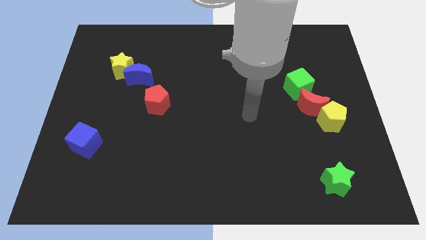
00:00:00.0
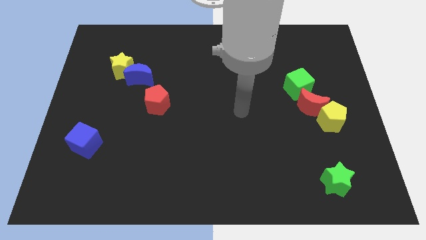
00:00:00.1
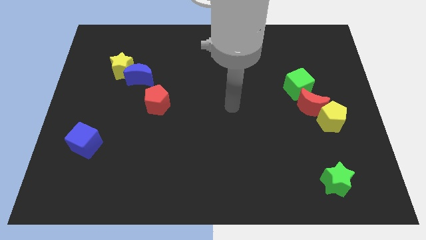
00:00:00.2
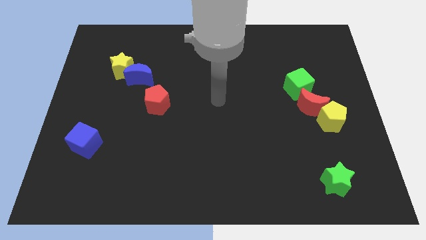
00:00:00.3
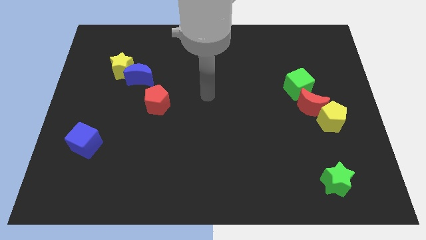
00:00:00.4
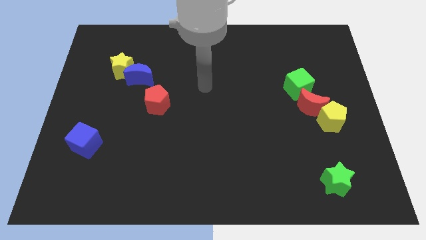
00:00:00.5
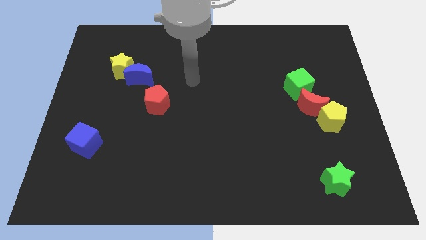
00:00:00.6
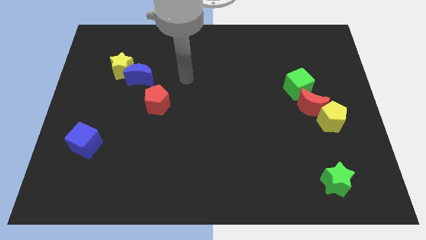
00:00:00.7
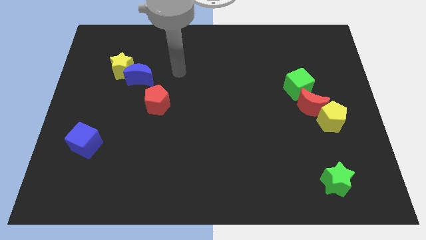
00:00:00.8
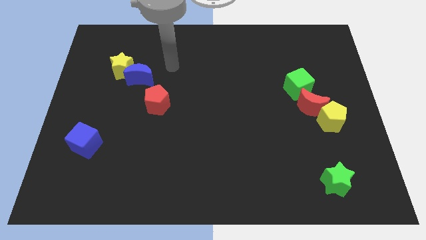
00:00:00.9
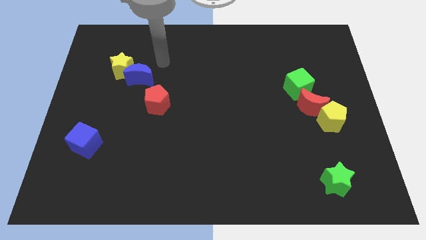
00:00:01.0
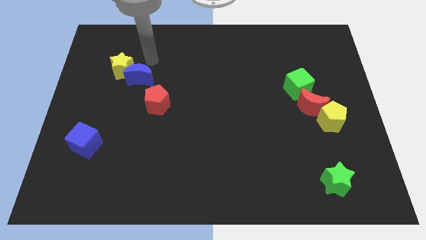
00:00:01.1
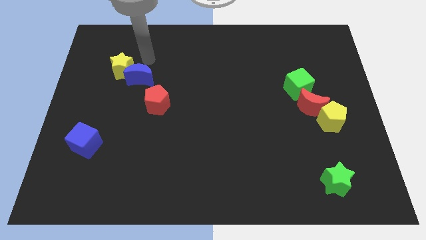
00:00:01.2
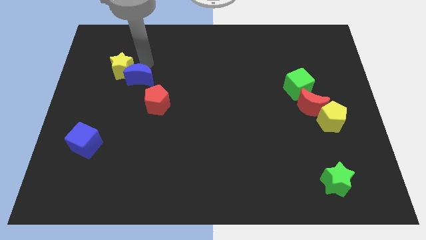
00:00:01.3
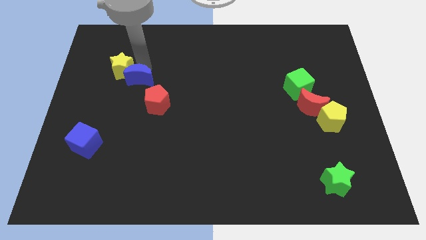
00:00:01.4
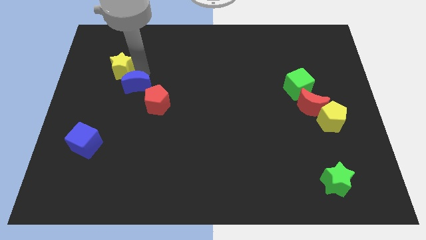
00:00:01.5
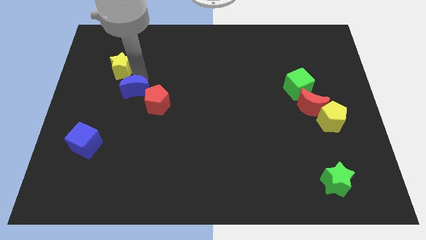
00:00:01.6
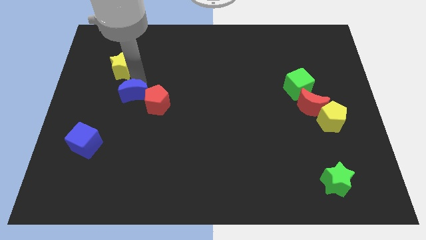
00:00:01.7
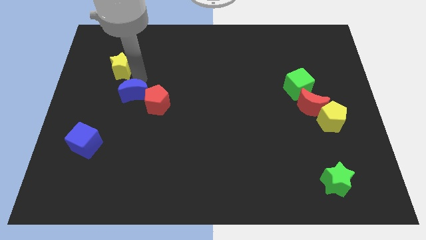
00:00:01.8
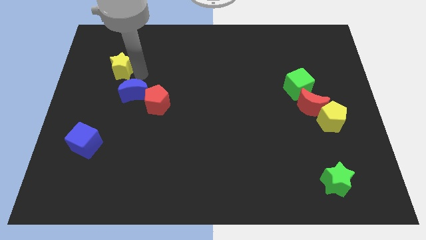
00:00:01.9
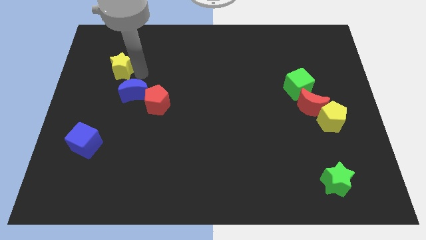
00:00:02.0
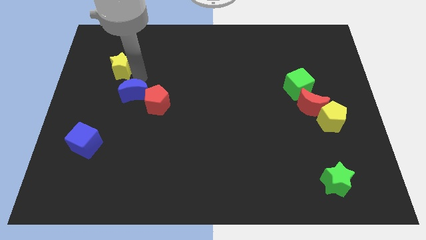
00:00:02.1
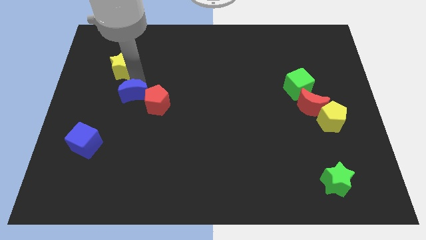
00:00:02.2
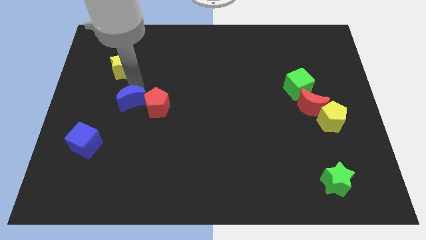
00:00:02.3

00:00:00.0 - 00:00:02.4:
move the blue moon somewhat downwards

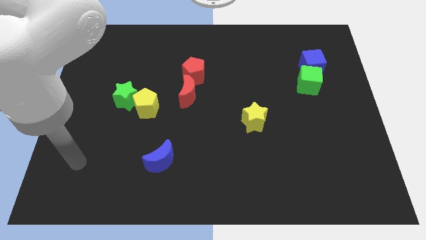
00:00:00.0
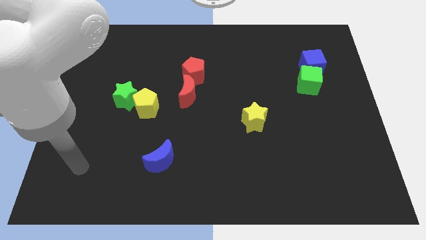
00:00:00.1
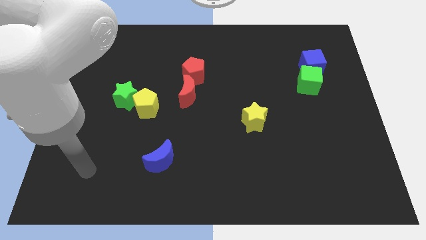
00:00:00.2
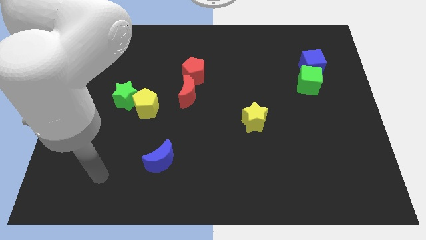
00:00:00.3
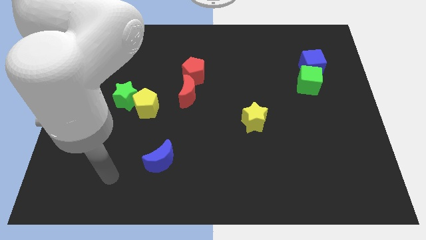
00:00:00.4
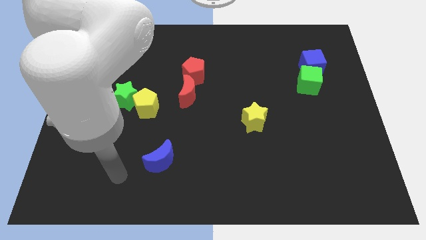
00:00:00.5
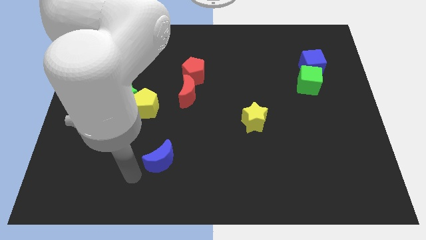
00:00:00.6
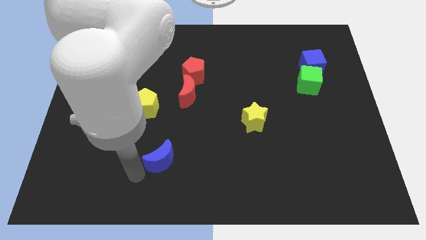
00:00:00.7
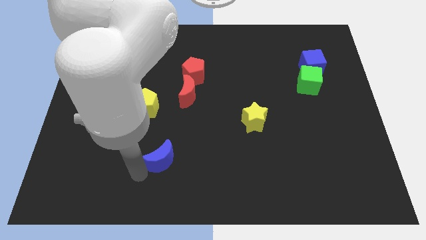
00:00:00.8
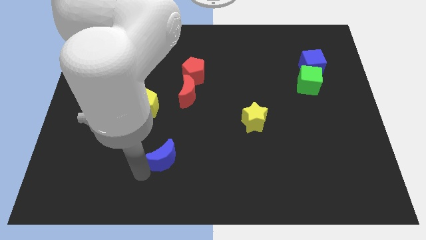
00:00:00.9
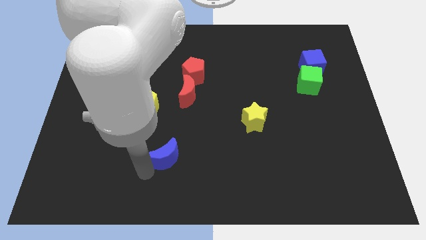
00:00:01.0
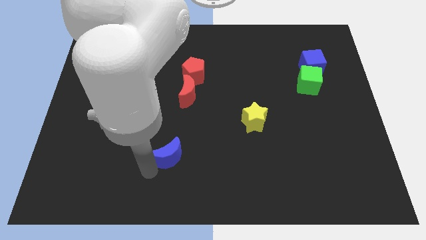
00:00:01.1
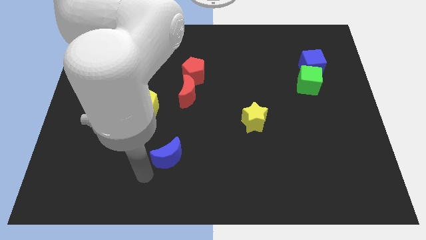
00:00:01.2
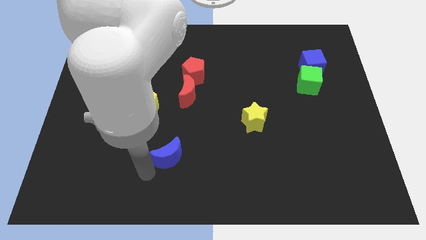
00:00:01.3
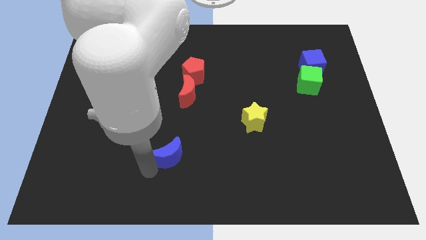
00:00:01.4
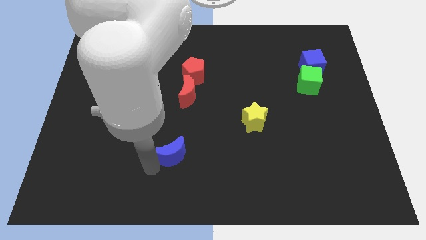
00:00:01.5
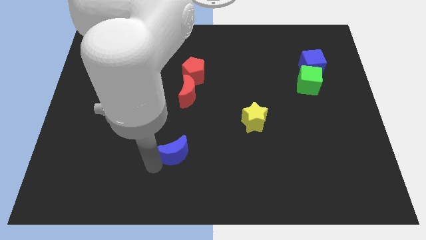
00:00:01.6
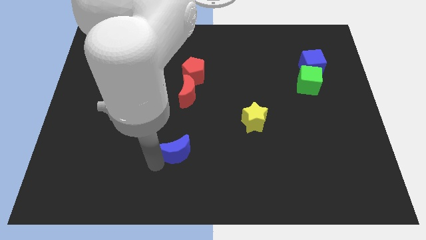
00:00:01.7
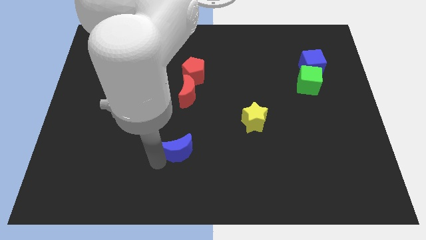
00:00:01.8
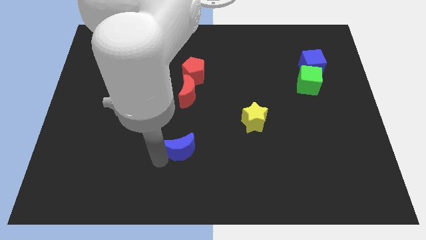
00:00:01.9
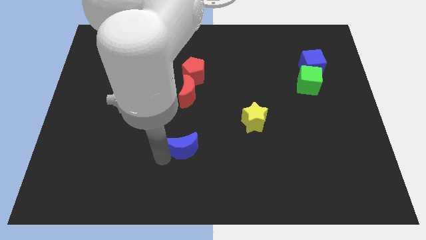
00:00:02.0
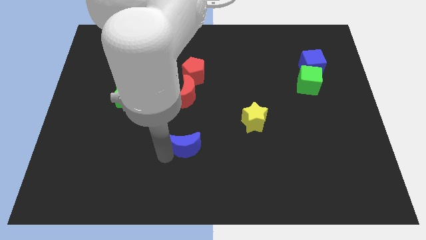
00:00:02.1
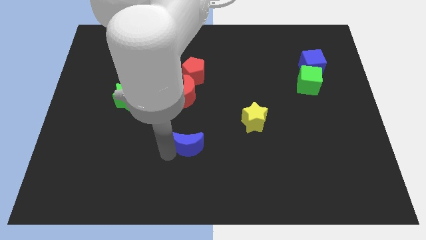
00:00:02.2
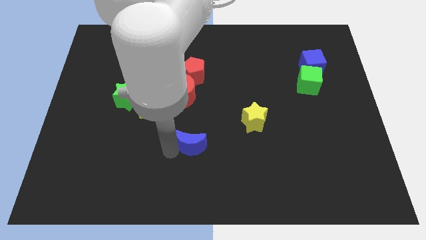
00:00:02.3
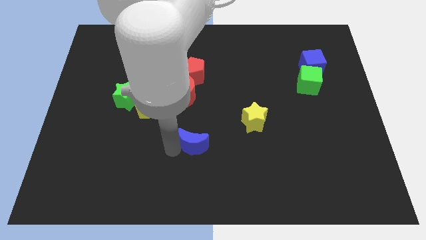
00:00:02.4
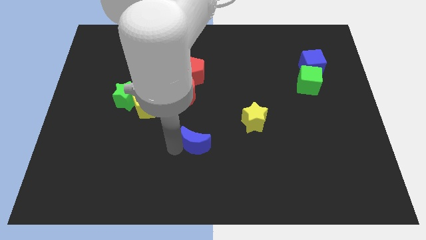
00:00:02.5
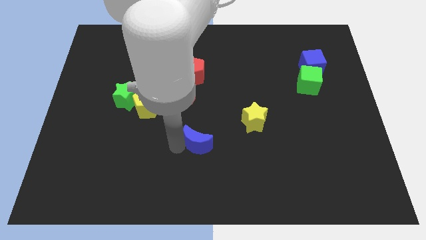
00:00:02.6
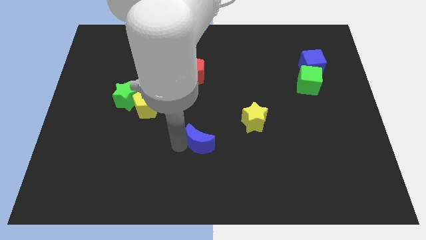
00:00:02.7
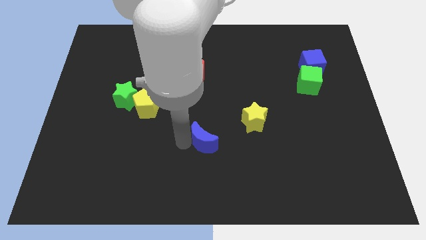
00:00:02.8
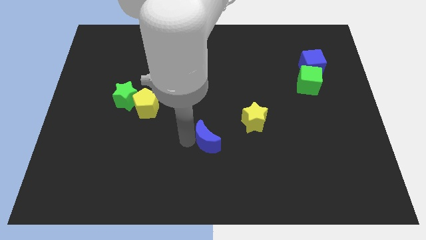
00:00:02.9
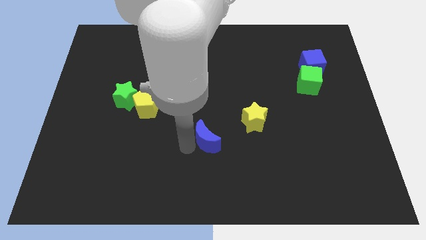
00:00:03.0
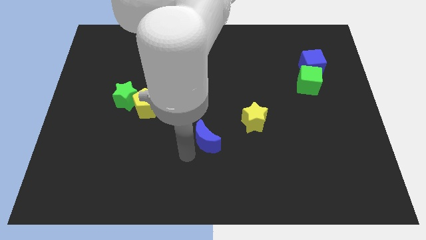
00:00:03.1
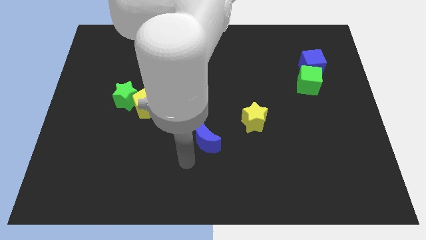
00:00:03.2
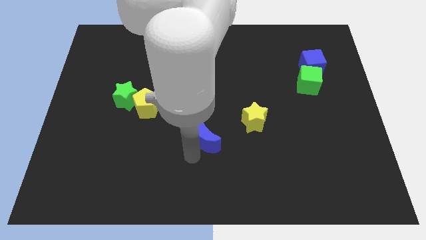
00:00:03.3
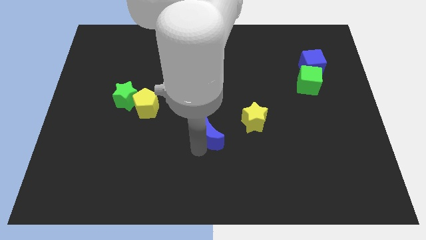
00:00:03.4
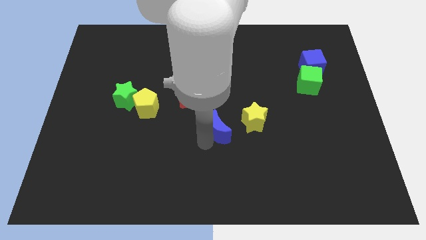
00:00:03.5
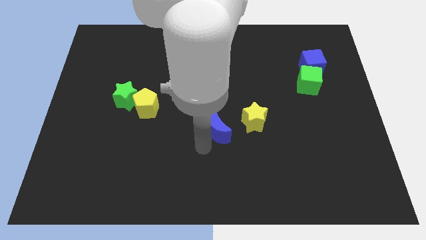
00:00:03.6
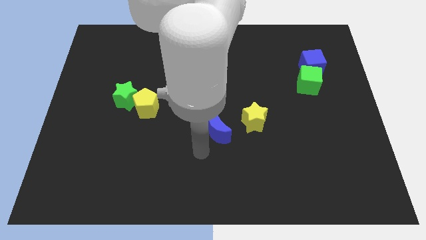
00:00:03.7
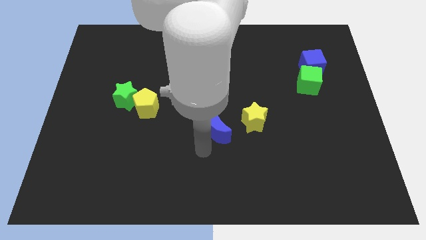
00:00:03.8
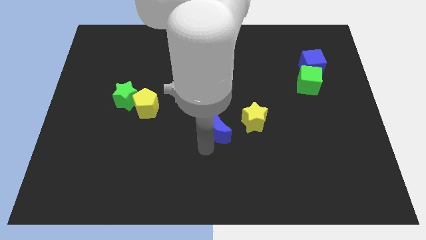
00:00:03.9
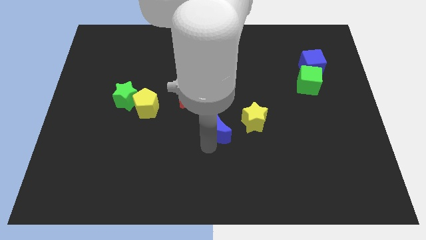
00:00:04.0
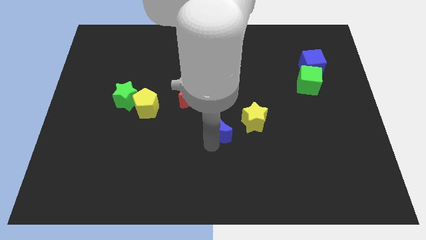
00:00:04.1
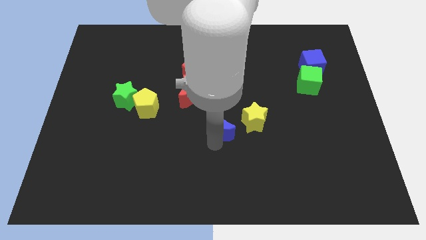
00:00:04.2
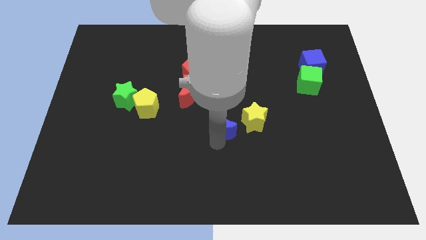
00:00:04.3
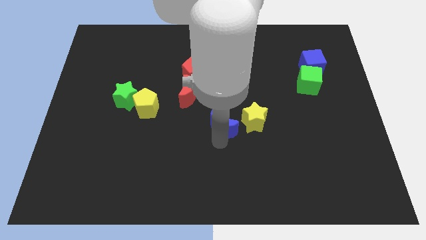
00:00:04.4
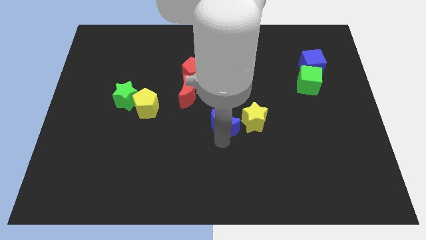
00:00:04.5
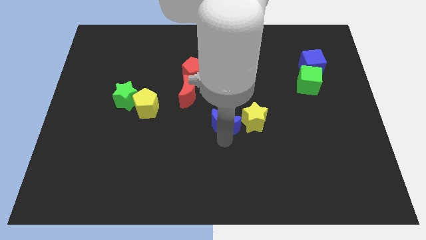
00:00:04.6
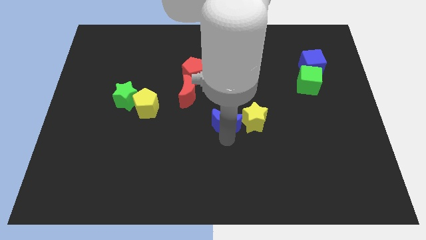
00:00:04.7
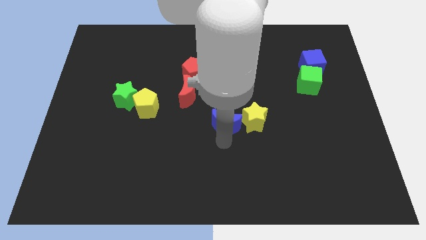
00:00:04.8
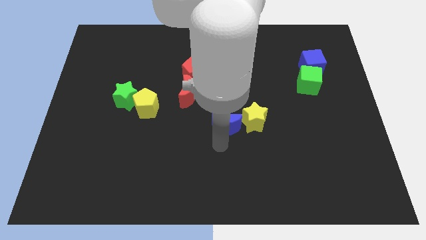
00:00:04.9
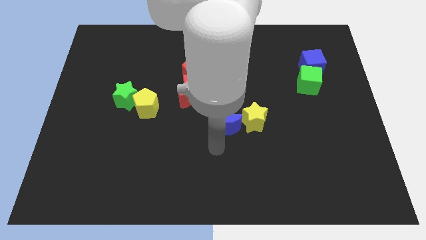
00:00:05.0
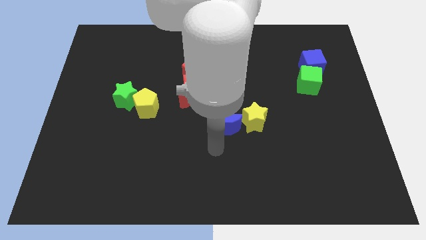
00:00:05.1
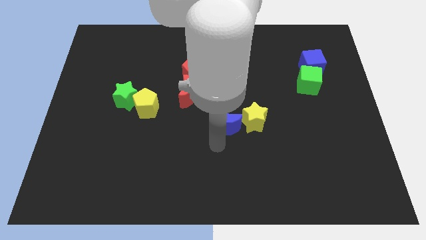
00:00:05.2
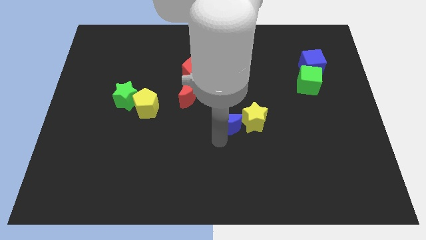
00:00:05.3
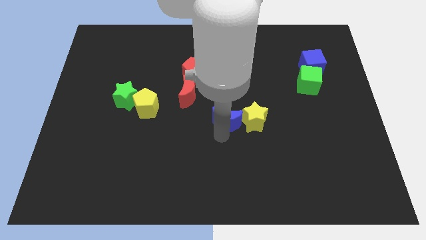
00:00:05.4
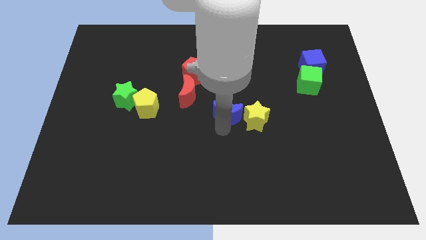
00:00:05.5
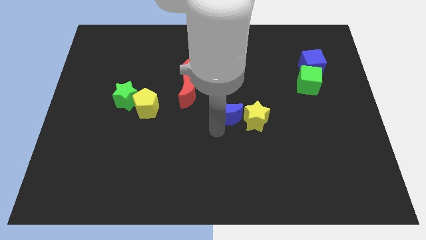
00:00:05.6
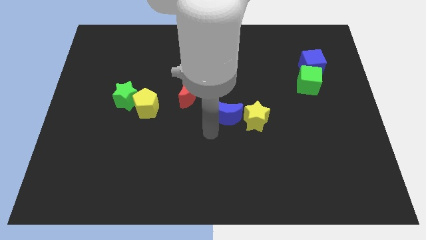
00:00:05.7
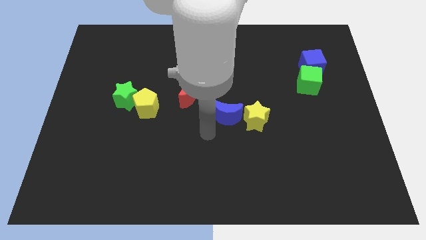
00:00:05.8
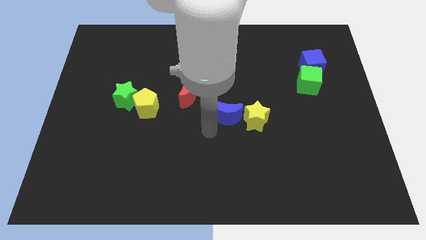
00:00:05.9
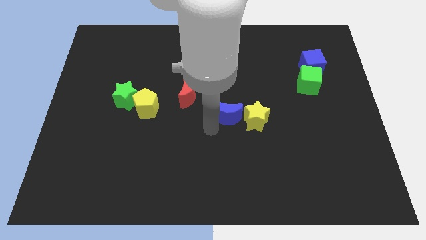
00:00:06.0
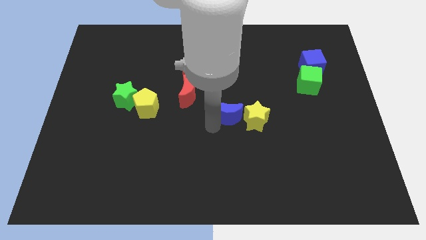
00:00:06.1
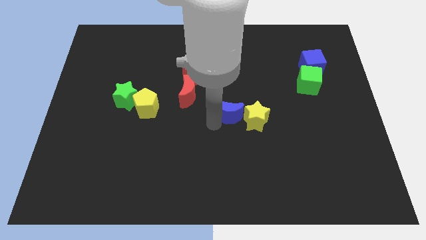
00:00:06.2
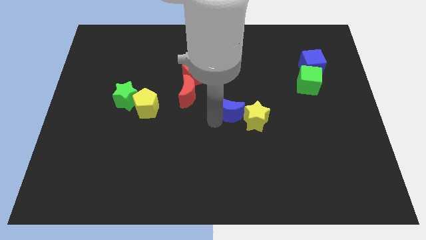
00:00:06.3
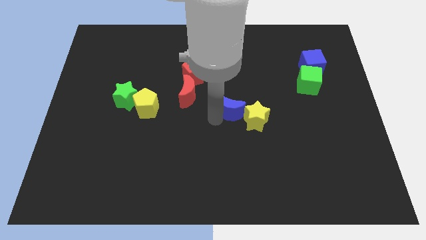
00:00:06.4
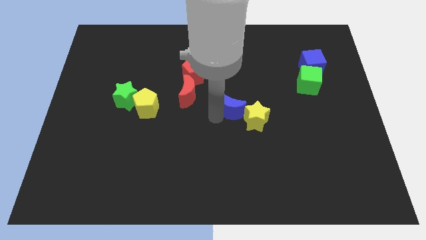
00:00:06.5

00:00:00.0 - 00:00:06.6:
slide the blue moon diagonally upwards and right
